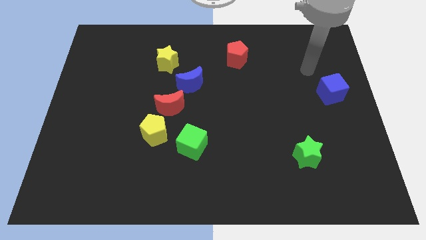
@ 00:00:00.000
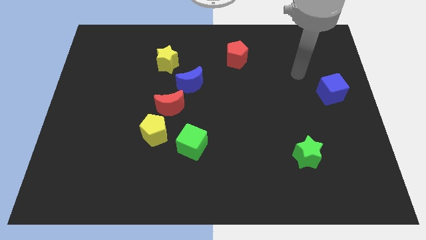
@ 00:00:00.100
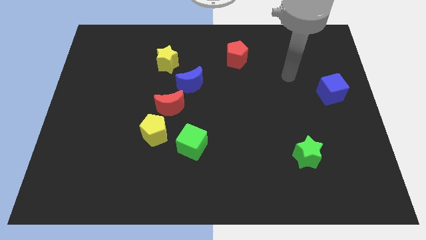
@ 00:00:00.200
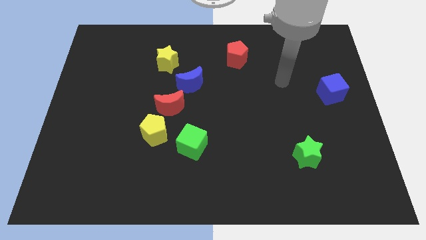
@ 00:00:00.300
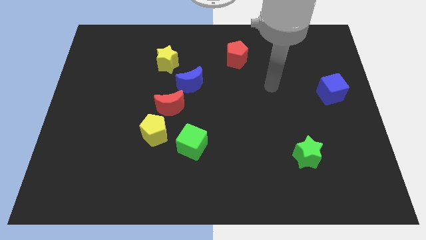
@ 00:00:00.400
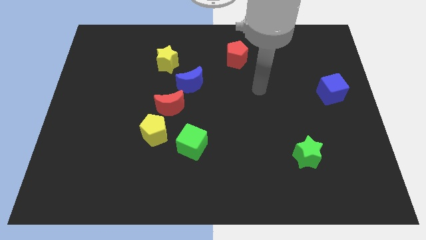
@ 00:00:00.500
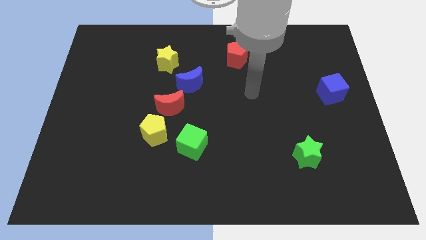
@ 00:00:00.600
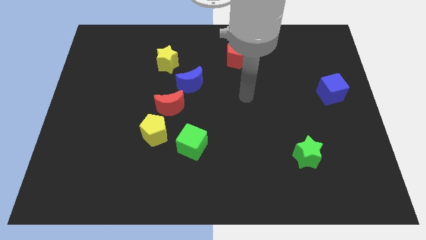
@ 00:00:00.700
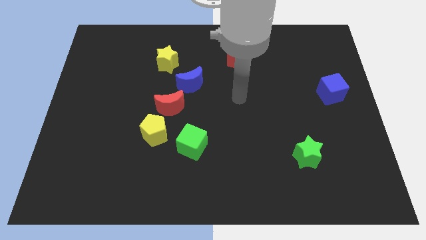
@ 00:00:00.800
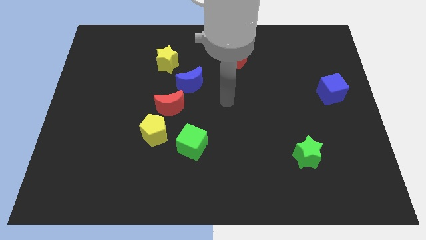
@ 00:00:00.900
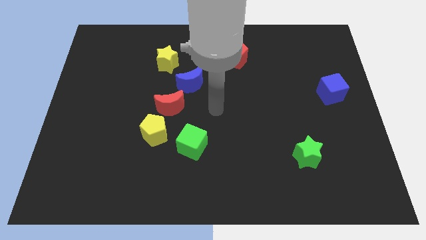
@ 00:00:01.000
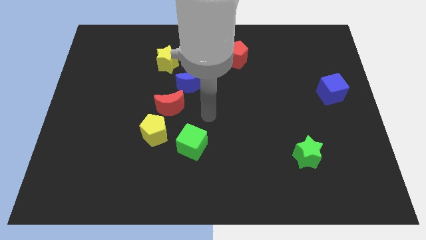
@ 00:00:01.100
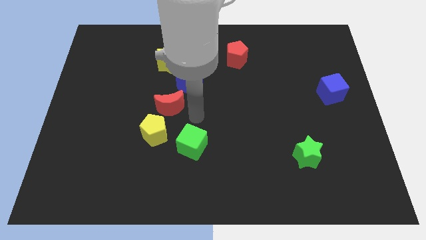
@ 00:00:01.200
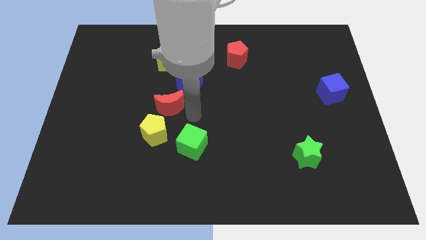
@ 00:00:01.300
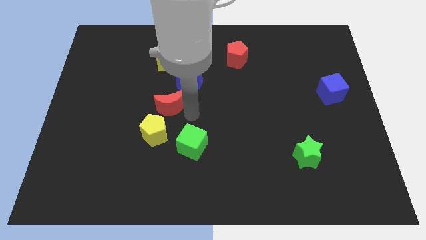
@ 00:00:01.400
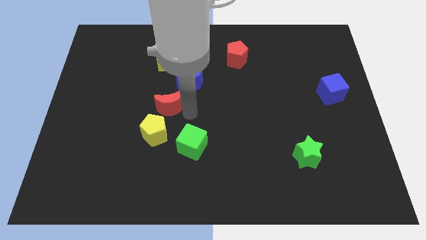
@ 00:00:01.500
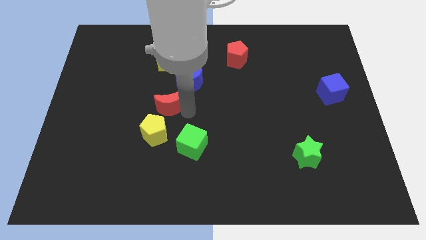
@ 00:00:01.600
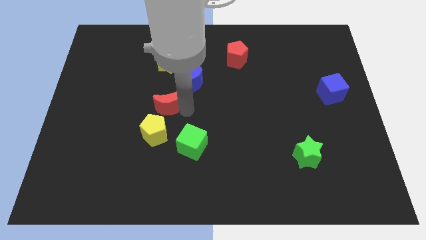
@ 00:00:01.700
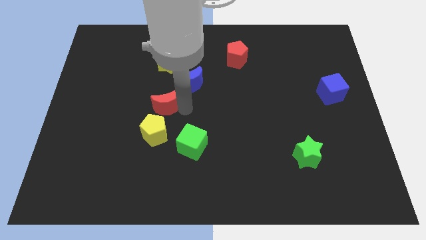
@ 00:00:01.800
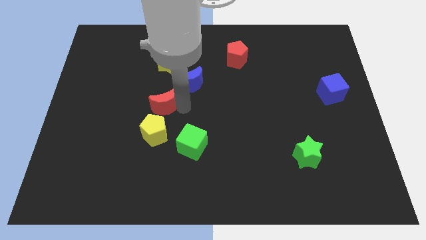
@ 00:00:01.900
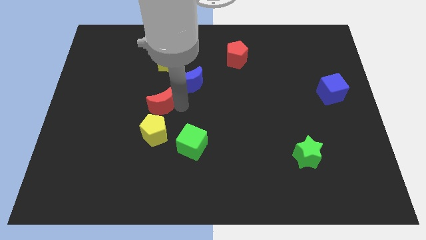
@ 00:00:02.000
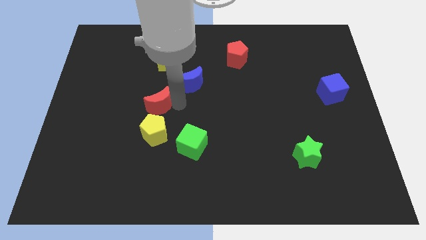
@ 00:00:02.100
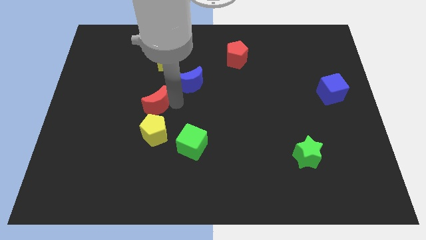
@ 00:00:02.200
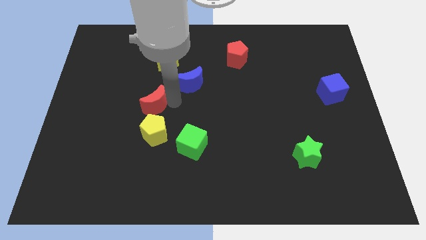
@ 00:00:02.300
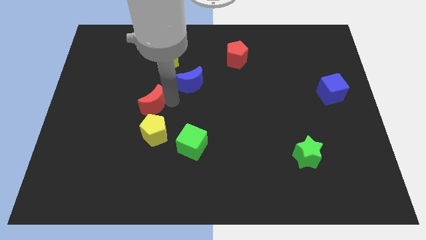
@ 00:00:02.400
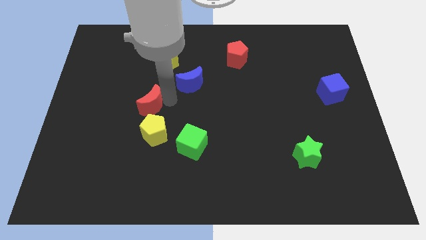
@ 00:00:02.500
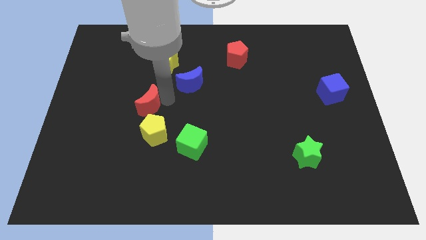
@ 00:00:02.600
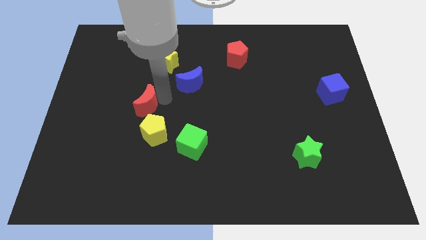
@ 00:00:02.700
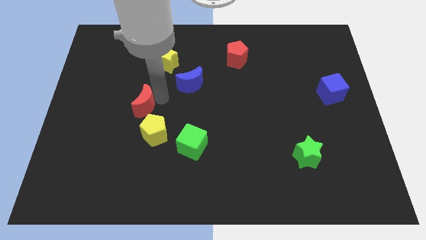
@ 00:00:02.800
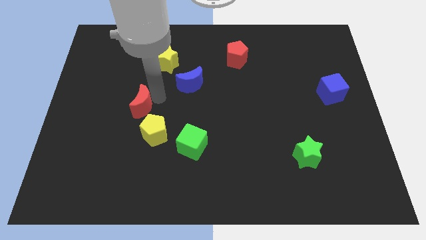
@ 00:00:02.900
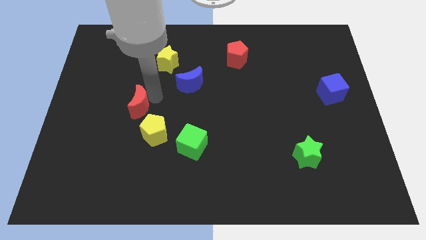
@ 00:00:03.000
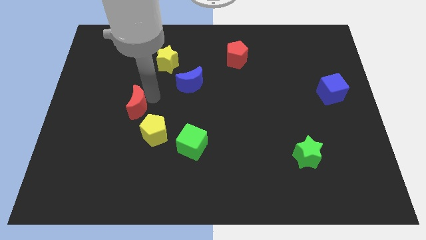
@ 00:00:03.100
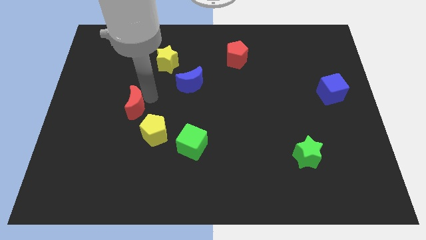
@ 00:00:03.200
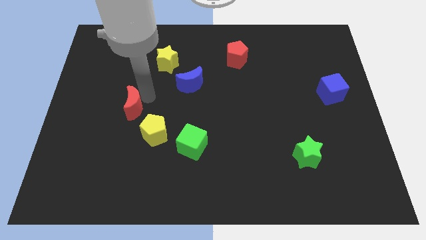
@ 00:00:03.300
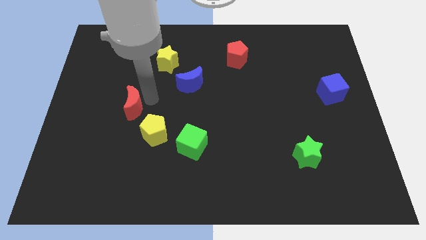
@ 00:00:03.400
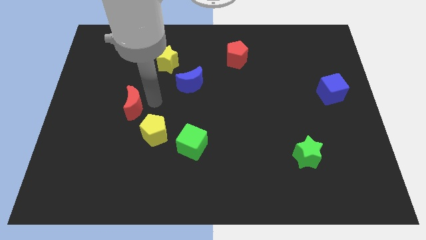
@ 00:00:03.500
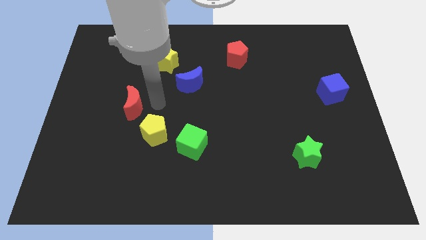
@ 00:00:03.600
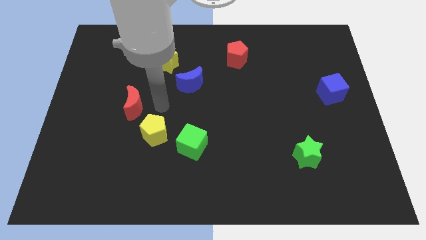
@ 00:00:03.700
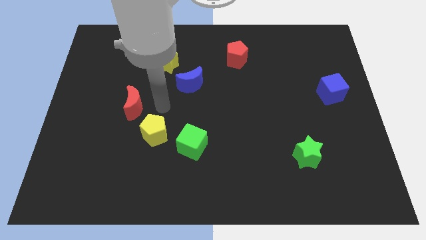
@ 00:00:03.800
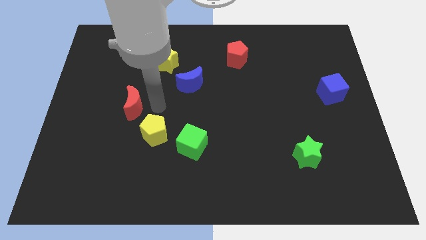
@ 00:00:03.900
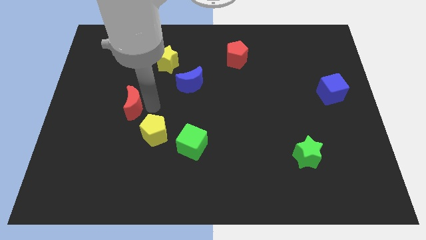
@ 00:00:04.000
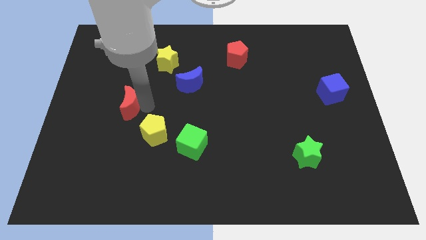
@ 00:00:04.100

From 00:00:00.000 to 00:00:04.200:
pull the red moon apart from the yellow pentagon and blue moon

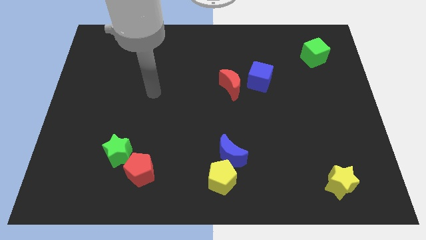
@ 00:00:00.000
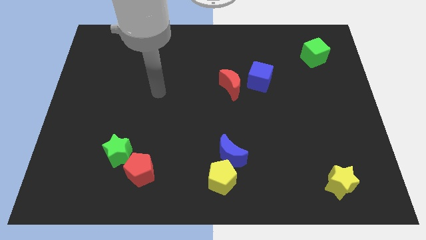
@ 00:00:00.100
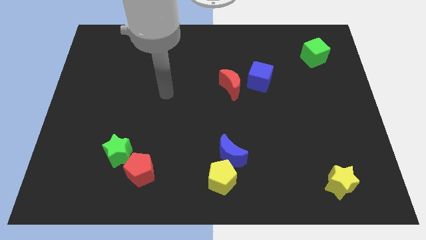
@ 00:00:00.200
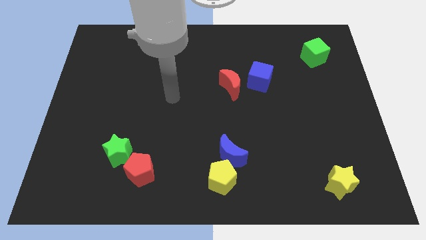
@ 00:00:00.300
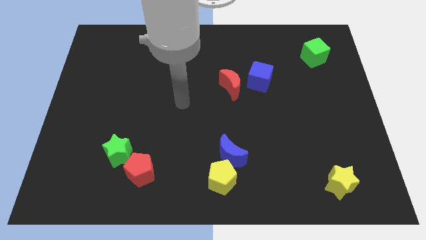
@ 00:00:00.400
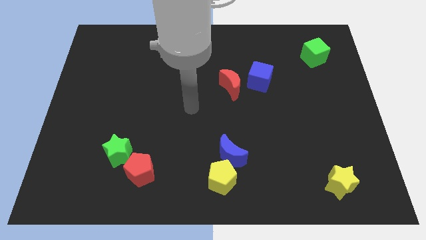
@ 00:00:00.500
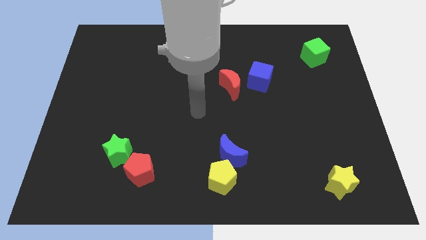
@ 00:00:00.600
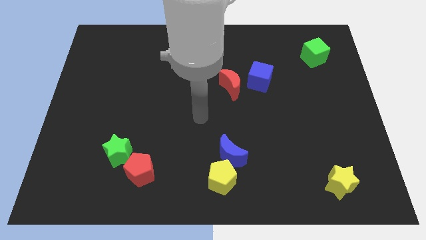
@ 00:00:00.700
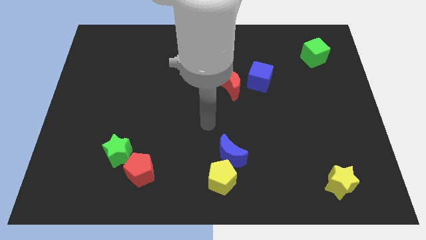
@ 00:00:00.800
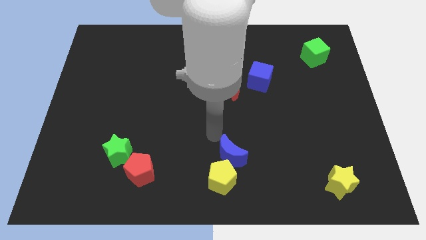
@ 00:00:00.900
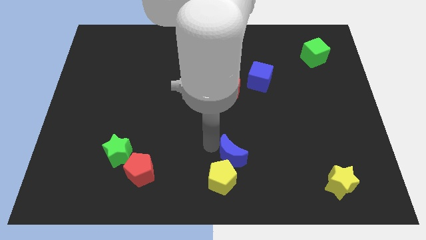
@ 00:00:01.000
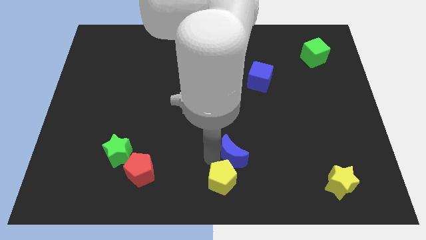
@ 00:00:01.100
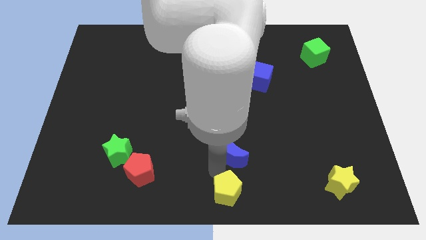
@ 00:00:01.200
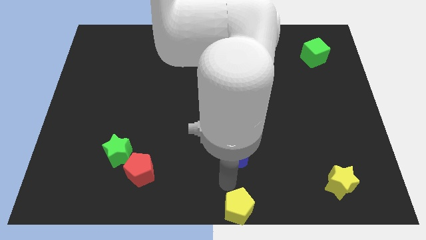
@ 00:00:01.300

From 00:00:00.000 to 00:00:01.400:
separate the blue moon from the yellow pentagon

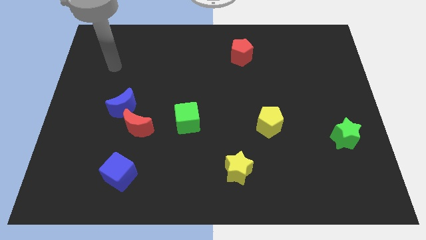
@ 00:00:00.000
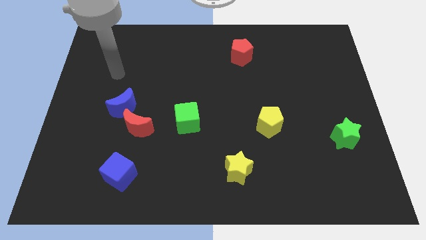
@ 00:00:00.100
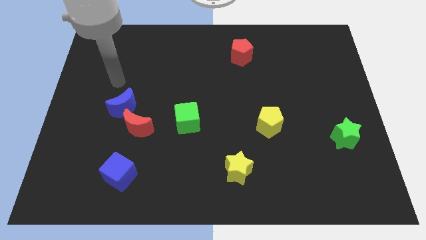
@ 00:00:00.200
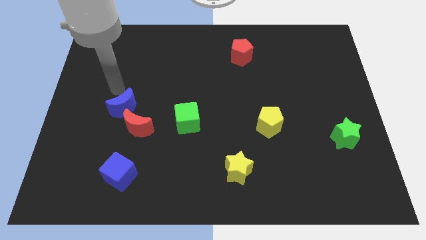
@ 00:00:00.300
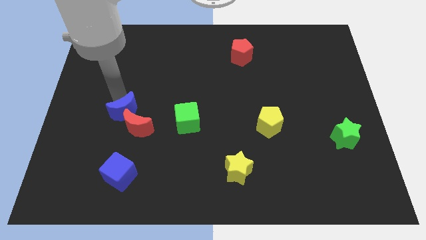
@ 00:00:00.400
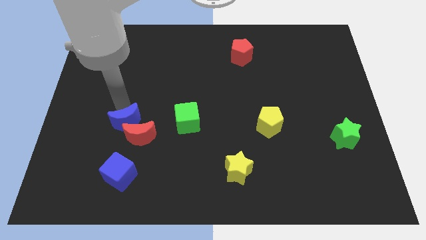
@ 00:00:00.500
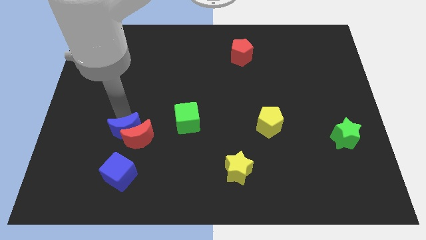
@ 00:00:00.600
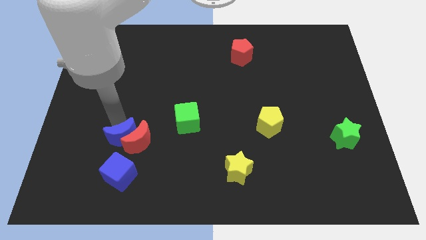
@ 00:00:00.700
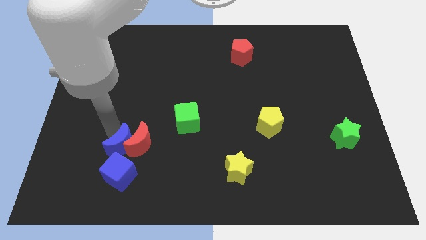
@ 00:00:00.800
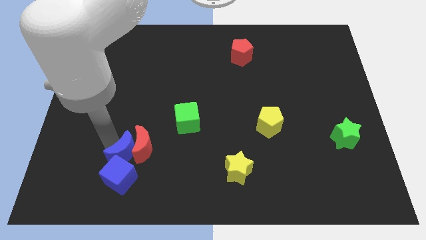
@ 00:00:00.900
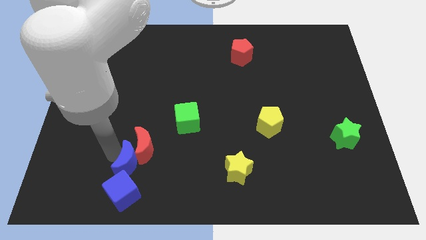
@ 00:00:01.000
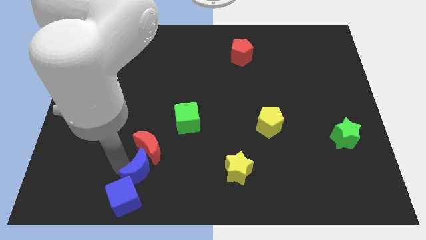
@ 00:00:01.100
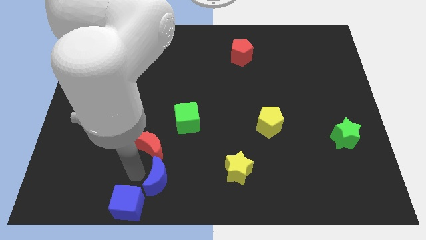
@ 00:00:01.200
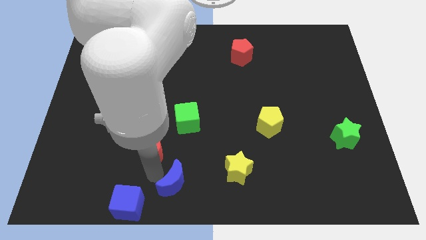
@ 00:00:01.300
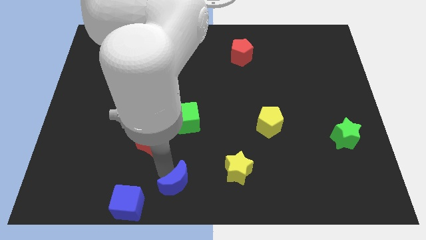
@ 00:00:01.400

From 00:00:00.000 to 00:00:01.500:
move the red moon away from the blue moon

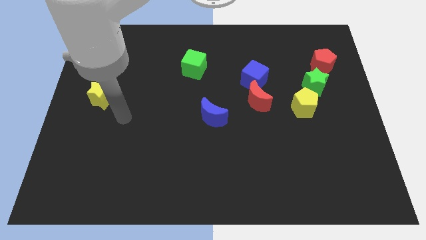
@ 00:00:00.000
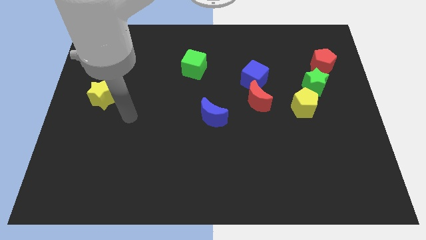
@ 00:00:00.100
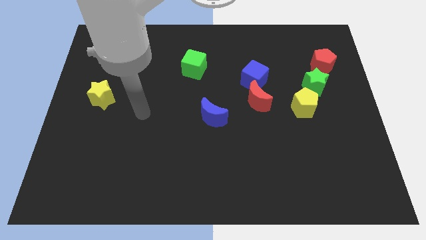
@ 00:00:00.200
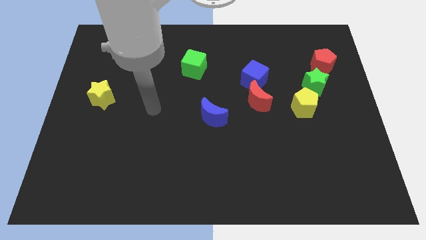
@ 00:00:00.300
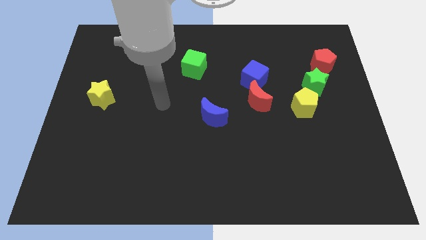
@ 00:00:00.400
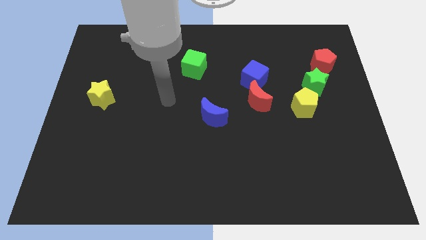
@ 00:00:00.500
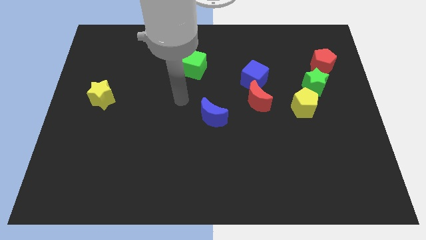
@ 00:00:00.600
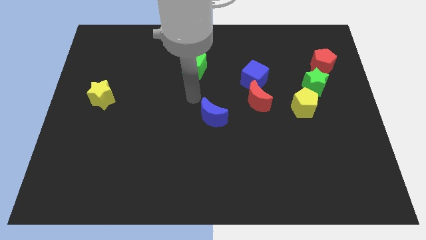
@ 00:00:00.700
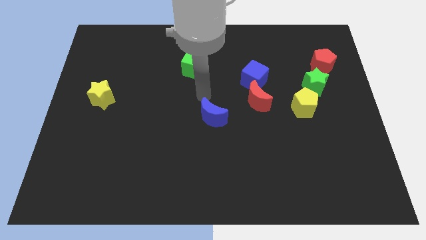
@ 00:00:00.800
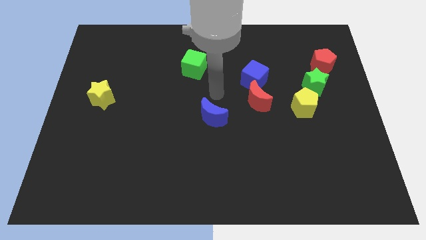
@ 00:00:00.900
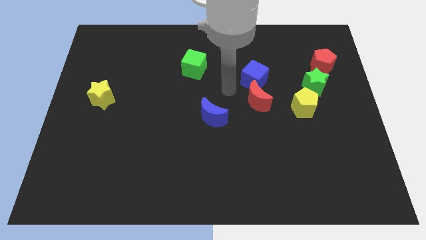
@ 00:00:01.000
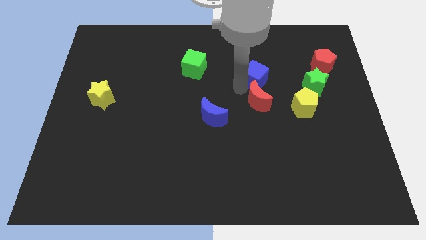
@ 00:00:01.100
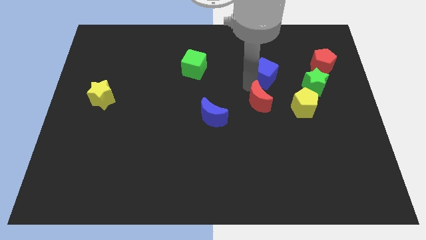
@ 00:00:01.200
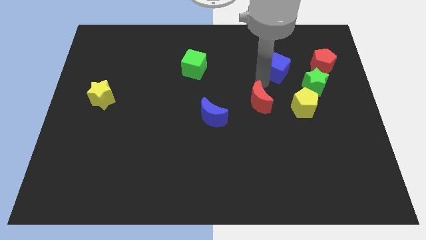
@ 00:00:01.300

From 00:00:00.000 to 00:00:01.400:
pull the red moon apart from the blue cube

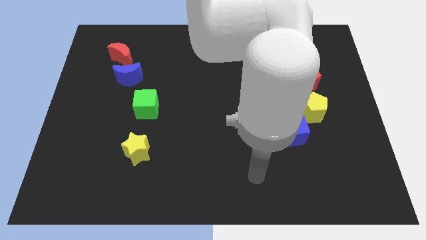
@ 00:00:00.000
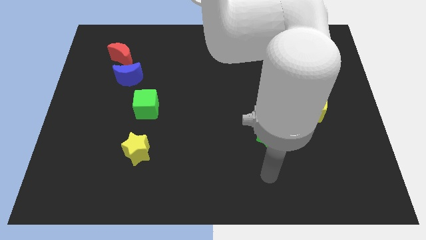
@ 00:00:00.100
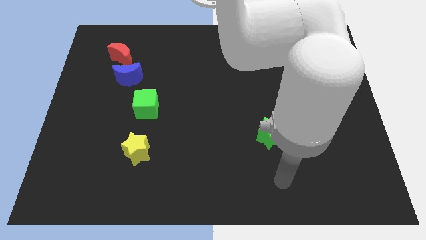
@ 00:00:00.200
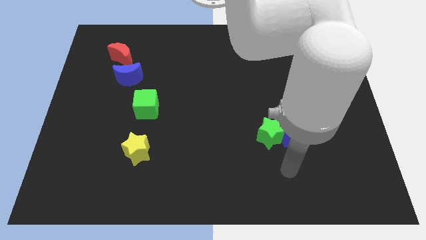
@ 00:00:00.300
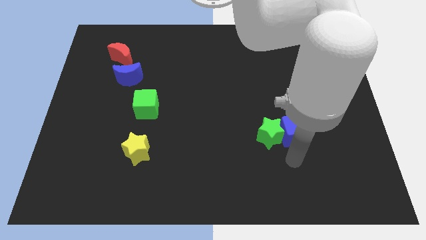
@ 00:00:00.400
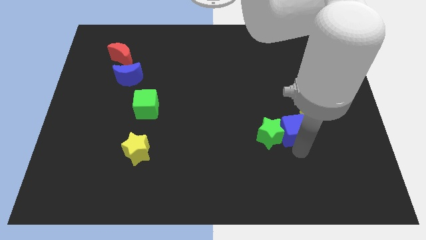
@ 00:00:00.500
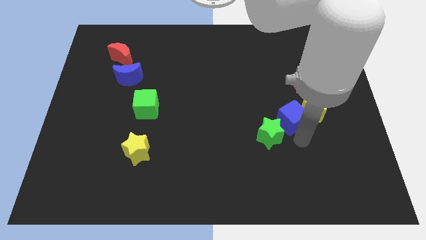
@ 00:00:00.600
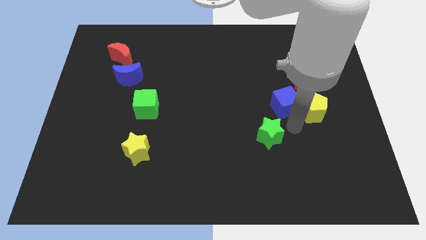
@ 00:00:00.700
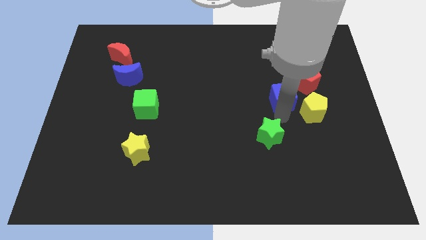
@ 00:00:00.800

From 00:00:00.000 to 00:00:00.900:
pull the green star apart from the blue cube
